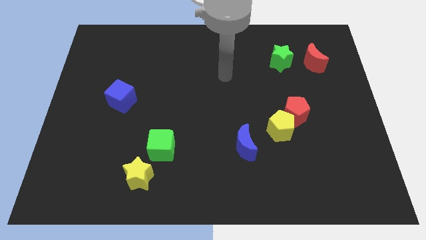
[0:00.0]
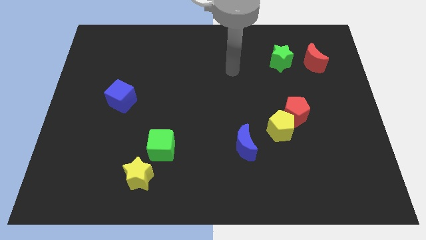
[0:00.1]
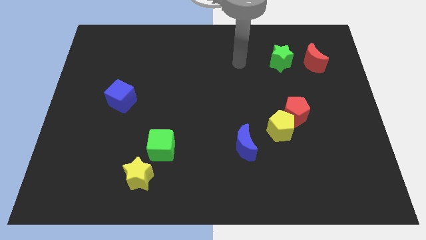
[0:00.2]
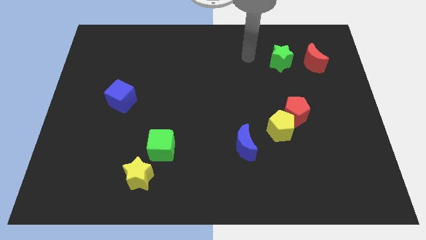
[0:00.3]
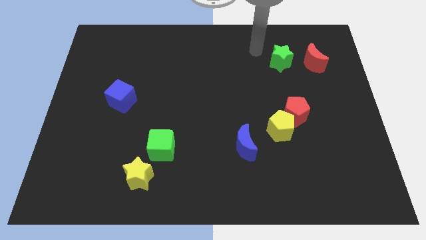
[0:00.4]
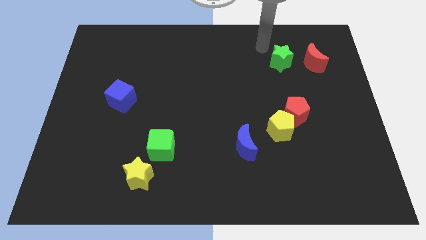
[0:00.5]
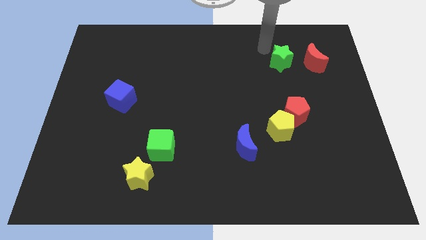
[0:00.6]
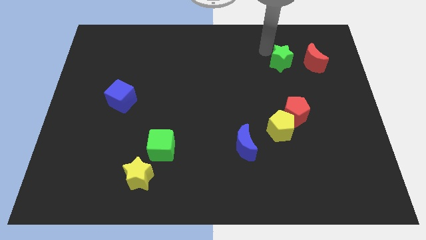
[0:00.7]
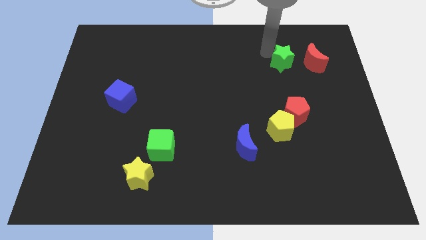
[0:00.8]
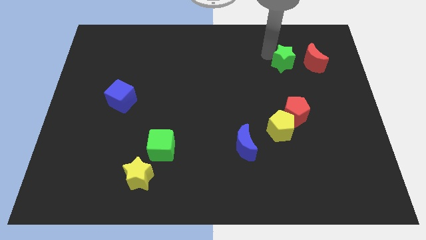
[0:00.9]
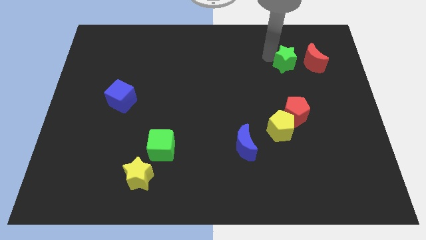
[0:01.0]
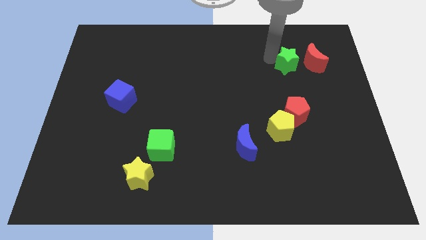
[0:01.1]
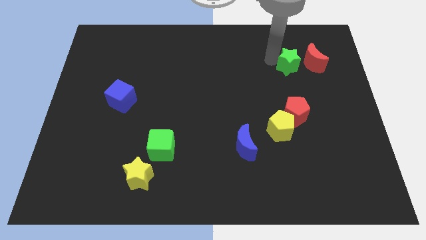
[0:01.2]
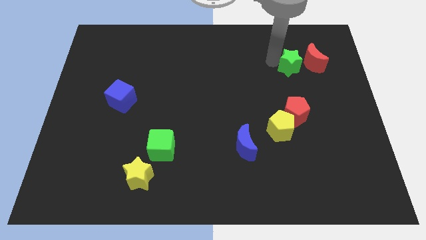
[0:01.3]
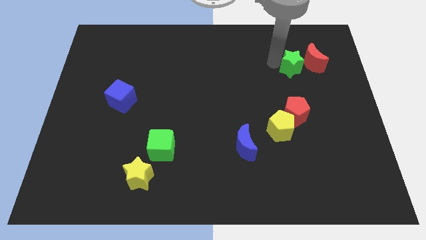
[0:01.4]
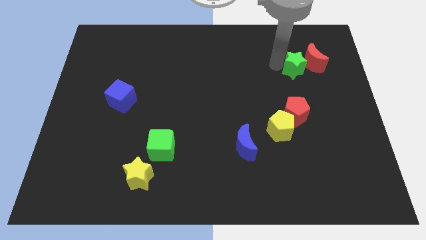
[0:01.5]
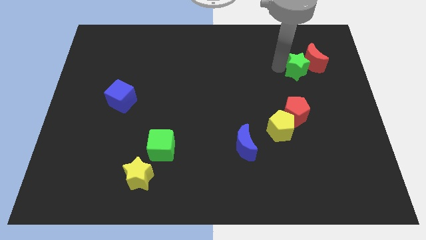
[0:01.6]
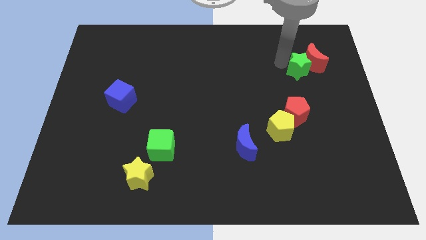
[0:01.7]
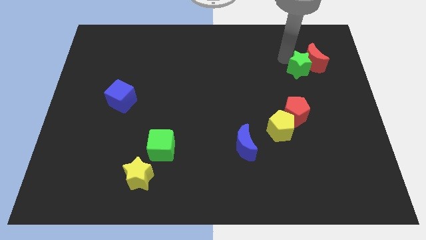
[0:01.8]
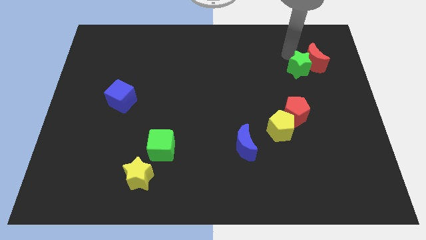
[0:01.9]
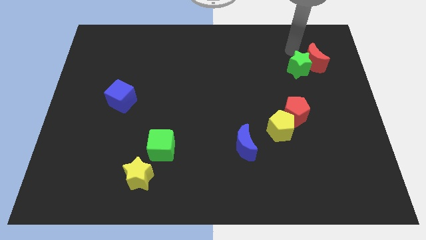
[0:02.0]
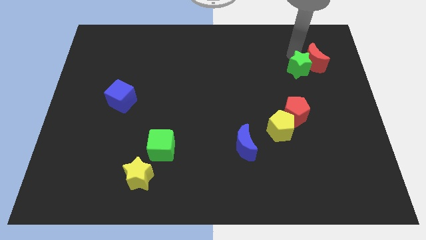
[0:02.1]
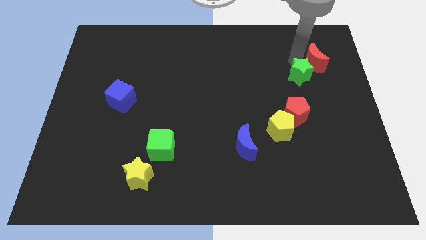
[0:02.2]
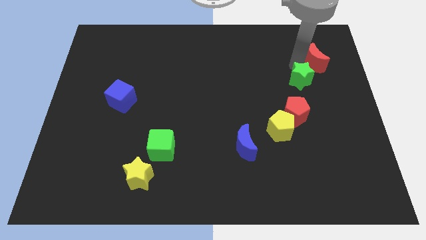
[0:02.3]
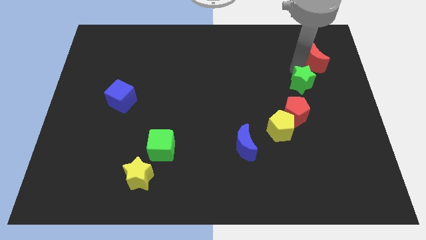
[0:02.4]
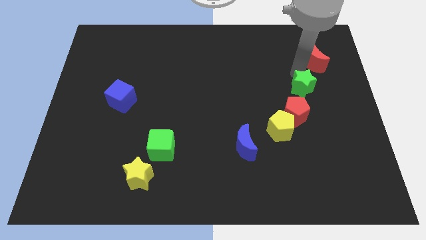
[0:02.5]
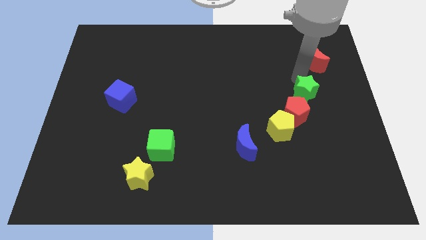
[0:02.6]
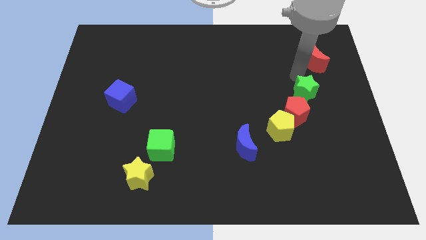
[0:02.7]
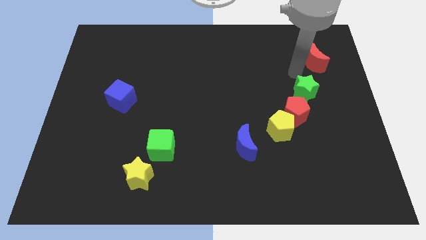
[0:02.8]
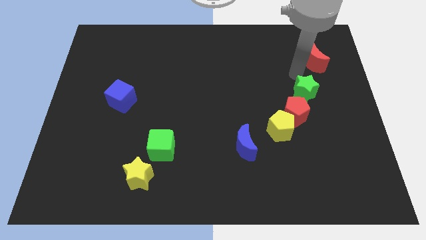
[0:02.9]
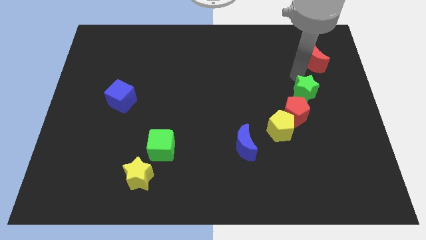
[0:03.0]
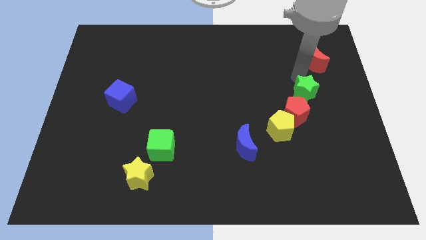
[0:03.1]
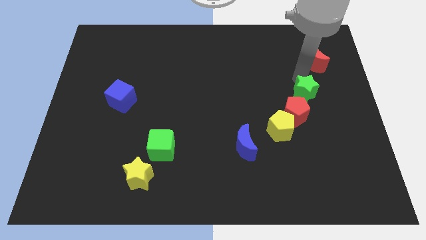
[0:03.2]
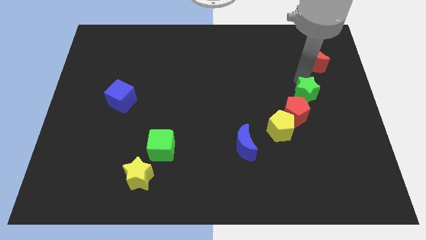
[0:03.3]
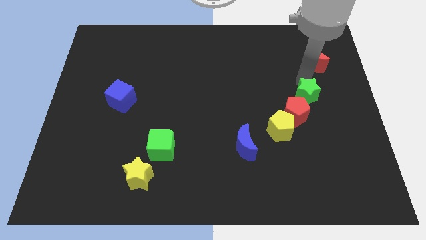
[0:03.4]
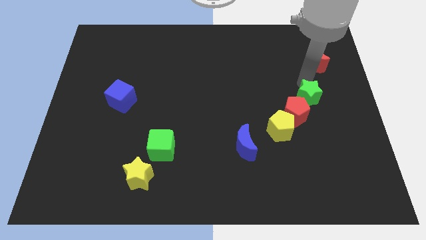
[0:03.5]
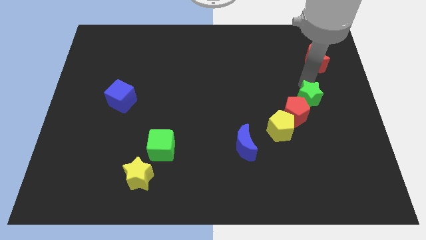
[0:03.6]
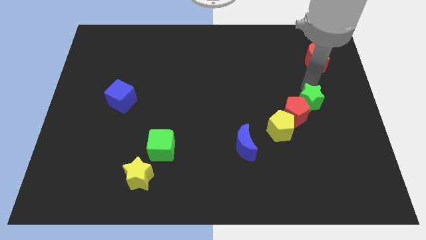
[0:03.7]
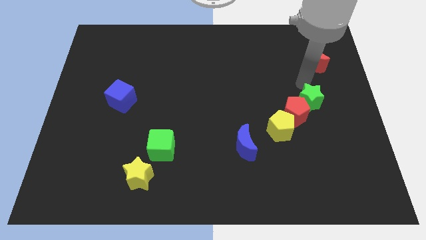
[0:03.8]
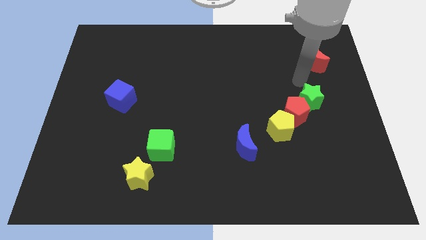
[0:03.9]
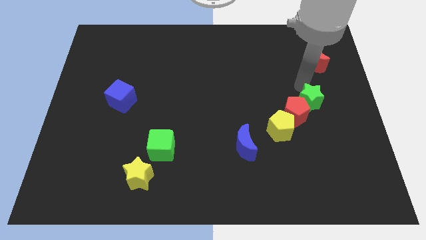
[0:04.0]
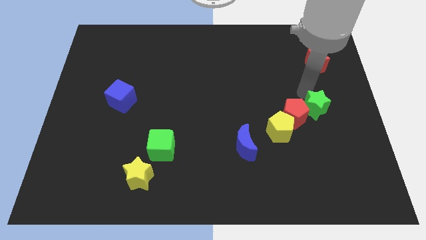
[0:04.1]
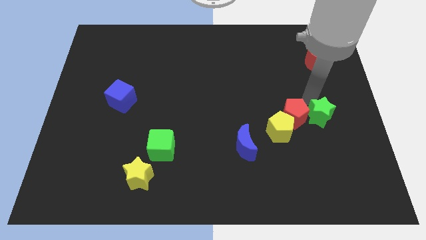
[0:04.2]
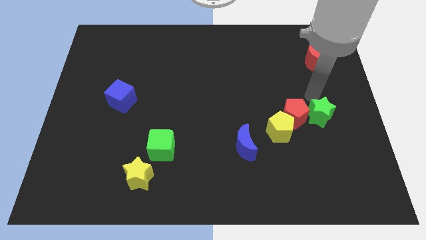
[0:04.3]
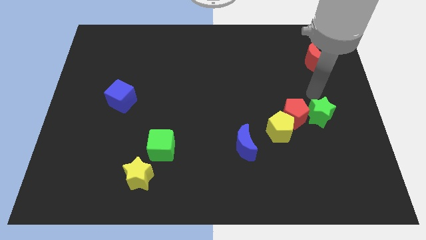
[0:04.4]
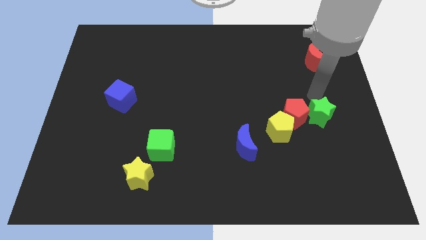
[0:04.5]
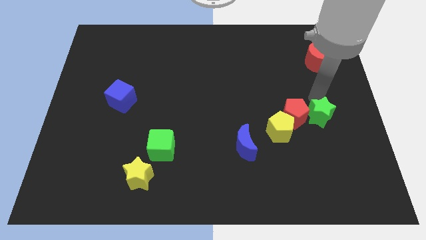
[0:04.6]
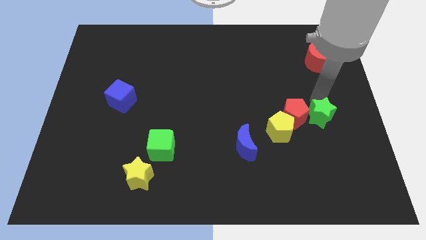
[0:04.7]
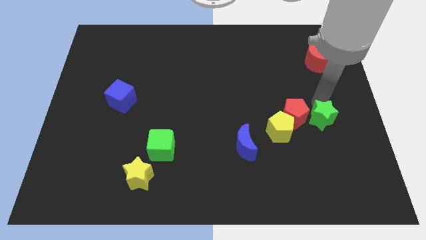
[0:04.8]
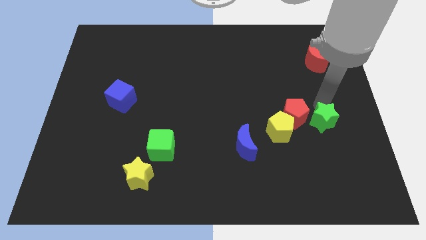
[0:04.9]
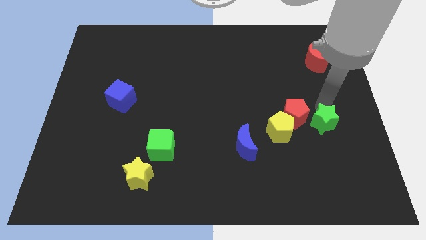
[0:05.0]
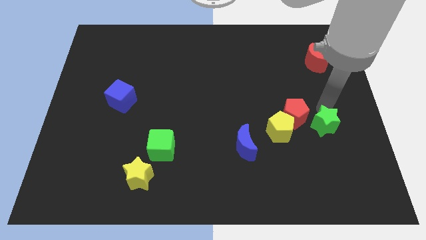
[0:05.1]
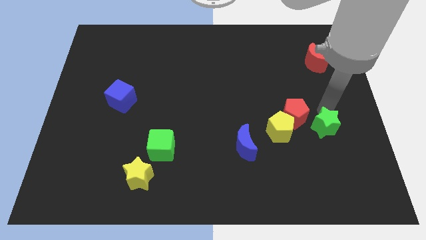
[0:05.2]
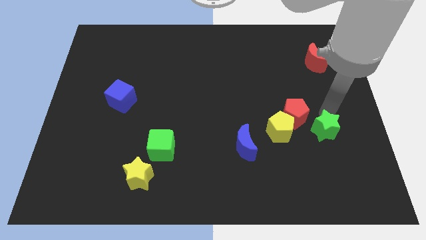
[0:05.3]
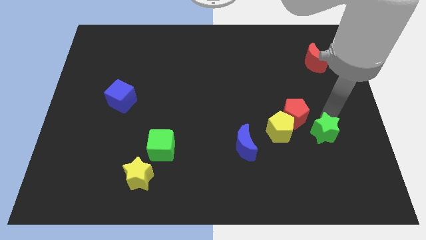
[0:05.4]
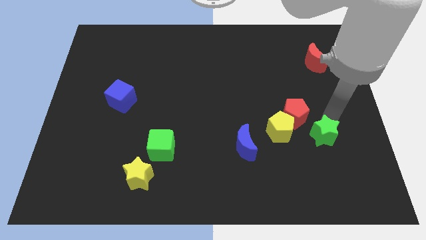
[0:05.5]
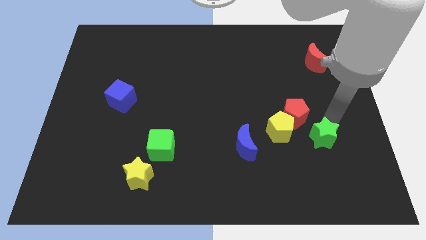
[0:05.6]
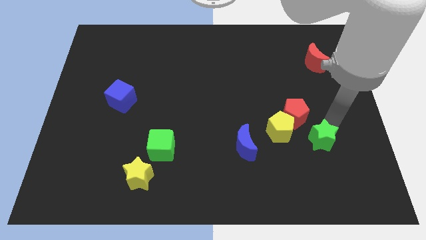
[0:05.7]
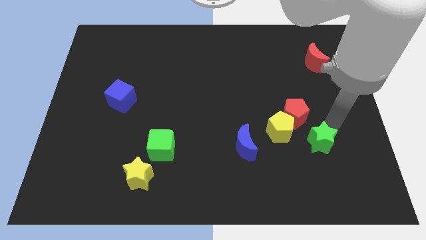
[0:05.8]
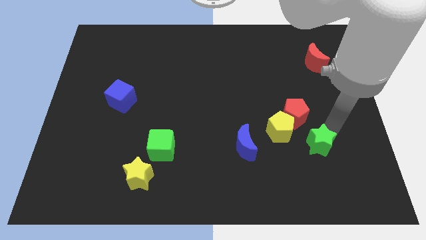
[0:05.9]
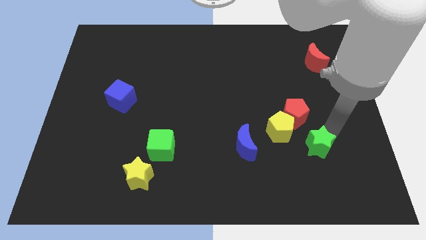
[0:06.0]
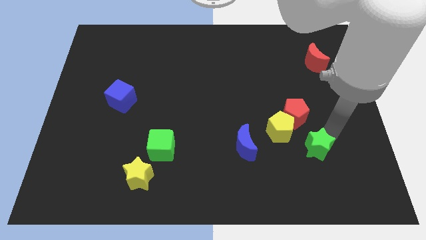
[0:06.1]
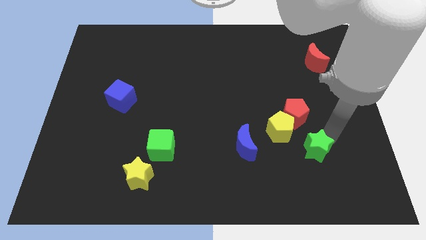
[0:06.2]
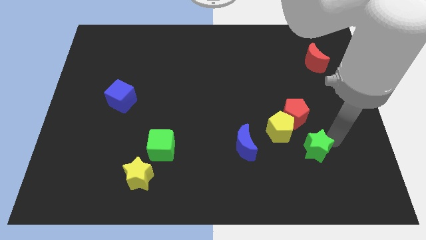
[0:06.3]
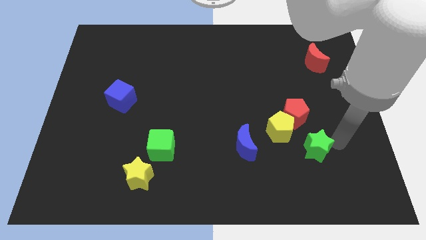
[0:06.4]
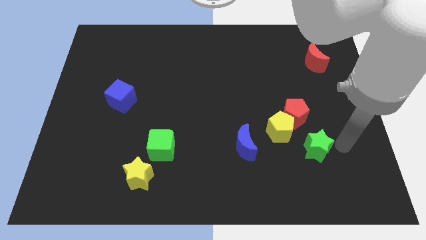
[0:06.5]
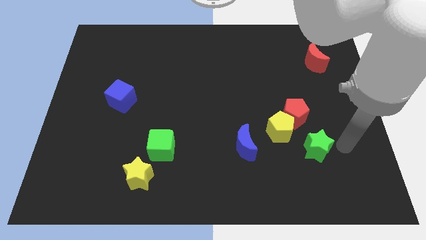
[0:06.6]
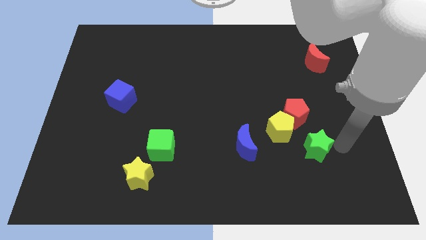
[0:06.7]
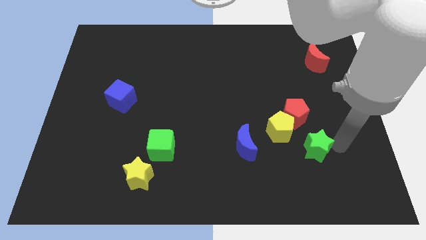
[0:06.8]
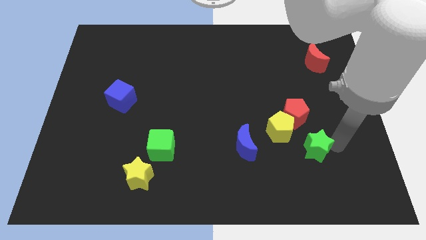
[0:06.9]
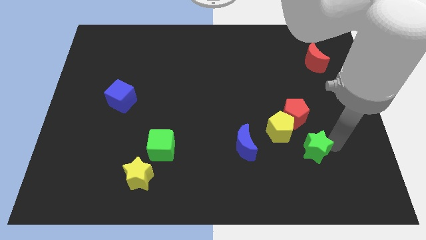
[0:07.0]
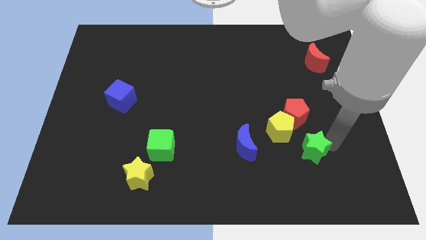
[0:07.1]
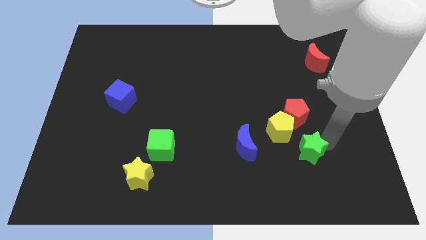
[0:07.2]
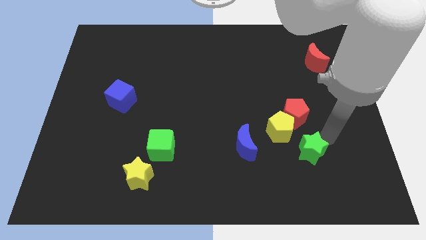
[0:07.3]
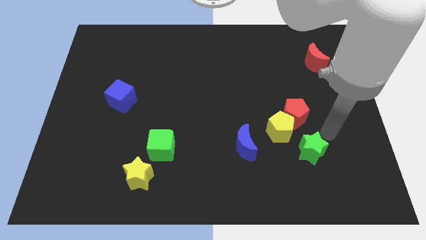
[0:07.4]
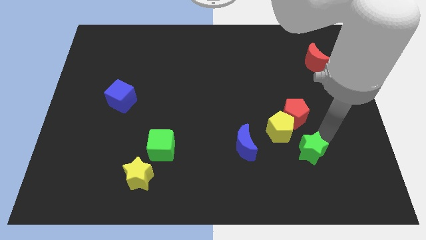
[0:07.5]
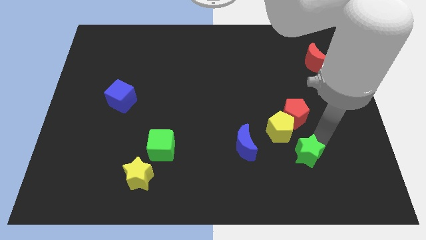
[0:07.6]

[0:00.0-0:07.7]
move the green star below the yellow pentagon
